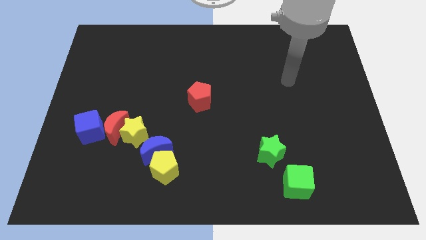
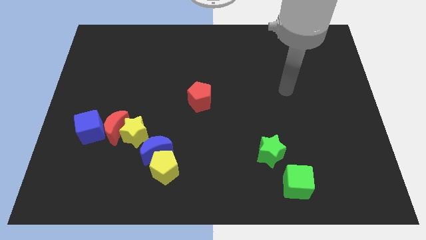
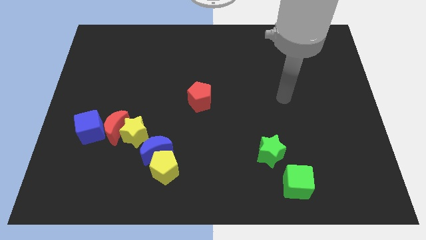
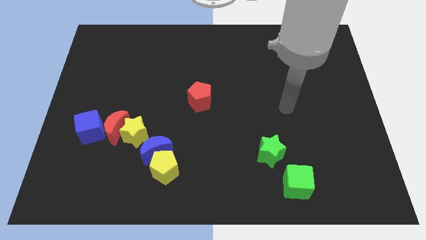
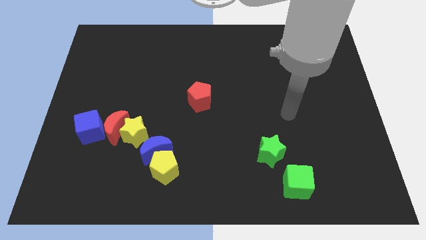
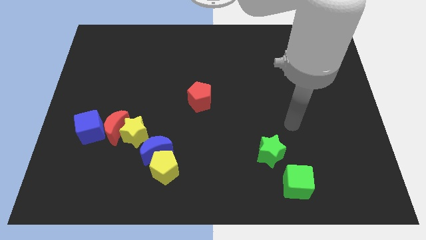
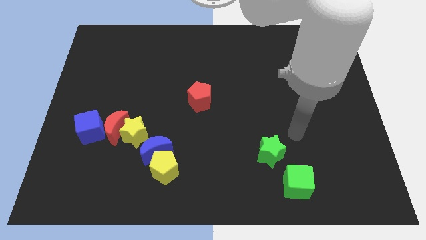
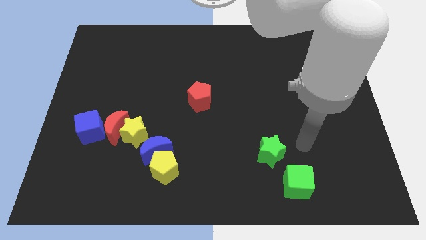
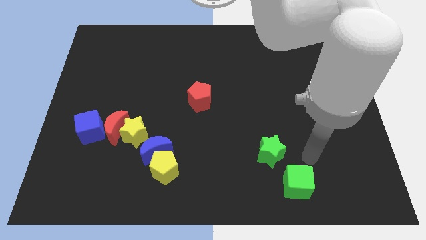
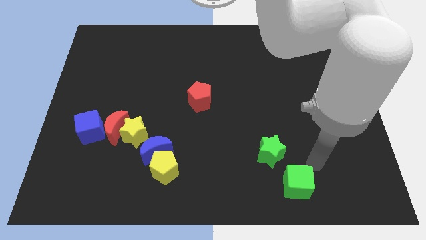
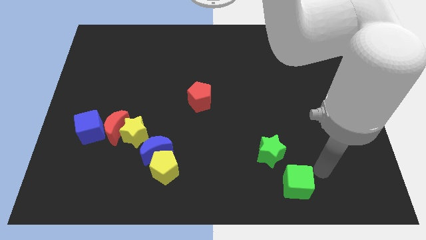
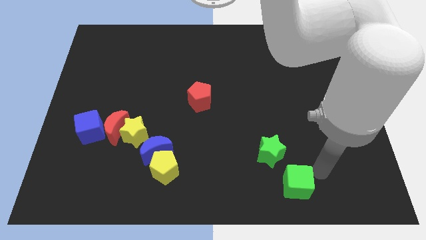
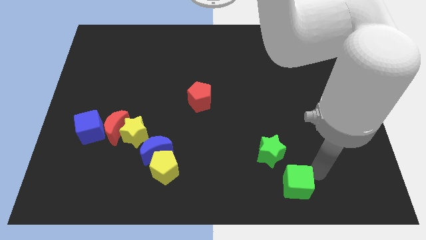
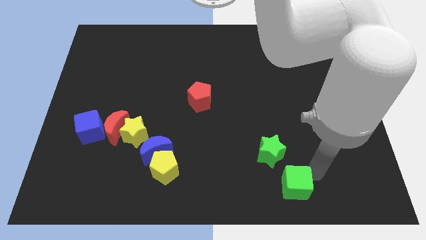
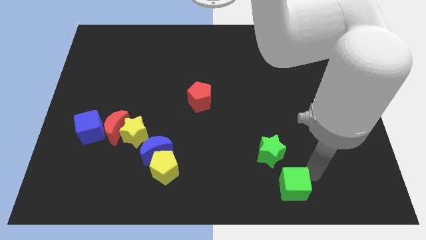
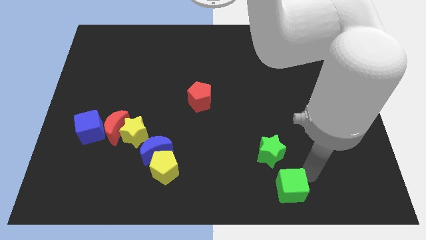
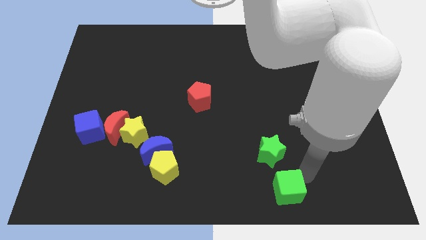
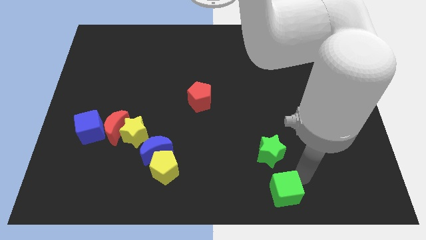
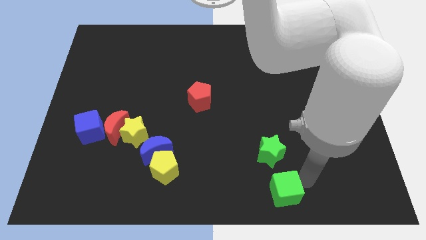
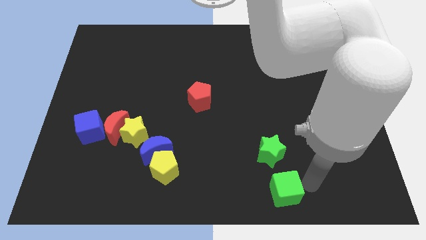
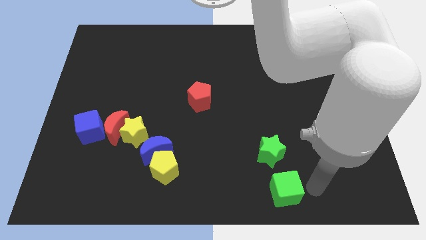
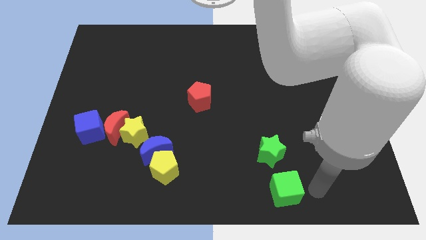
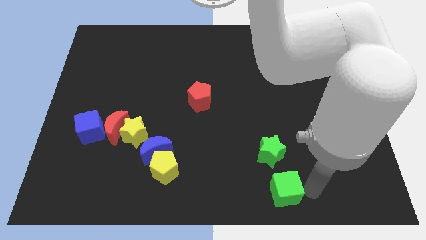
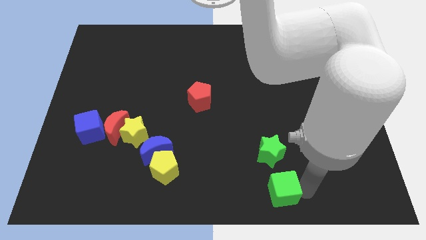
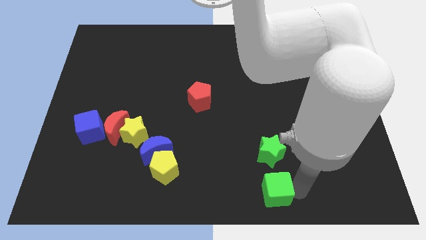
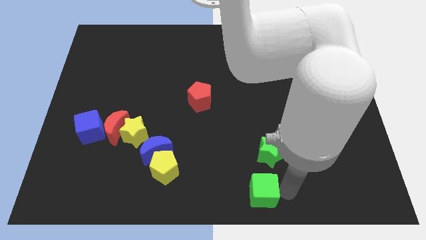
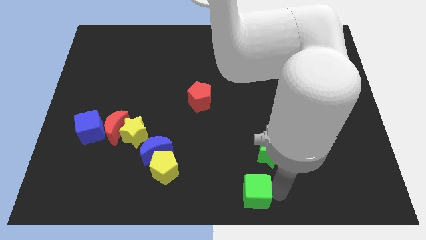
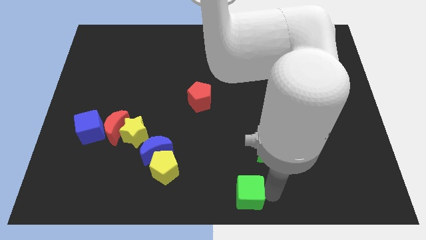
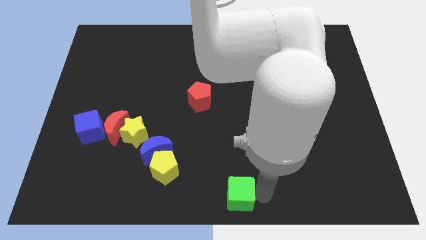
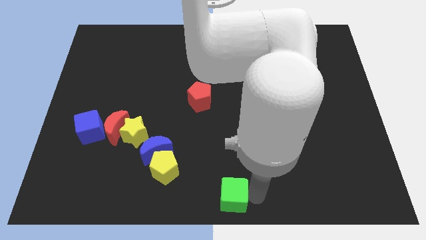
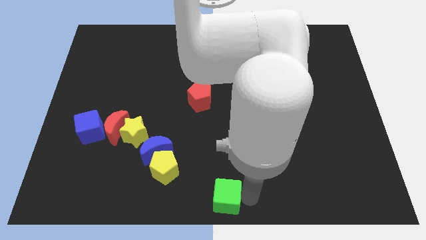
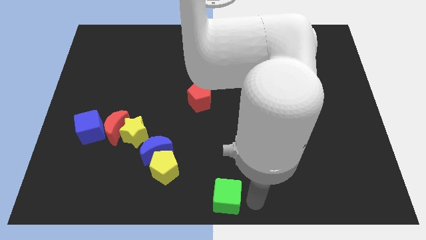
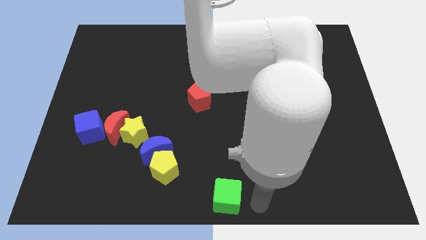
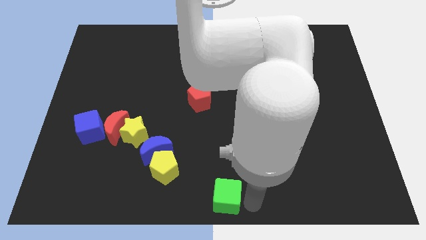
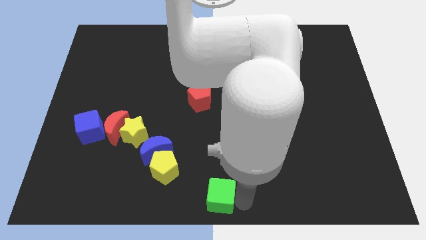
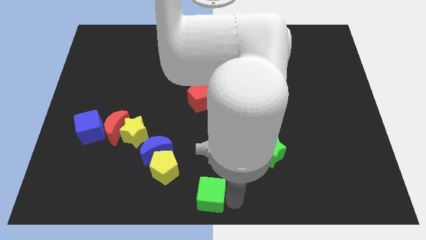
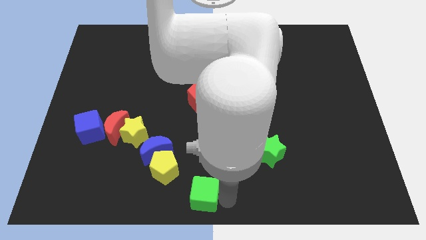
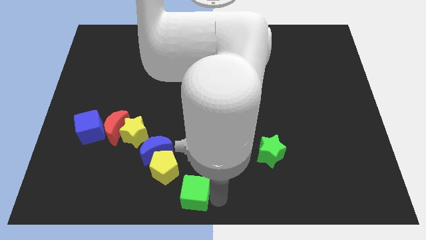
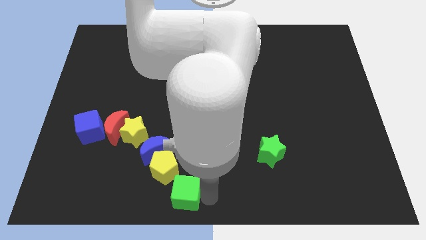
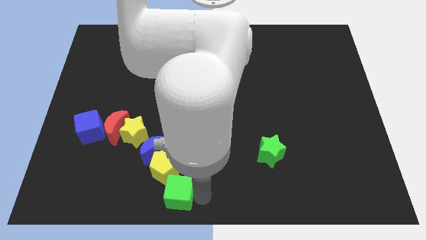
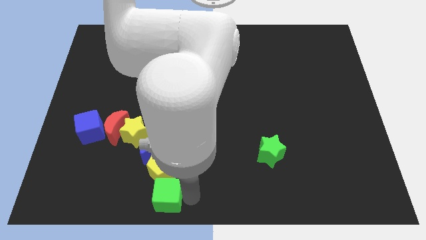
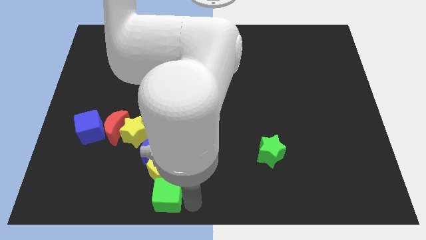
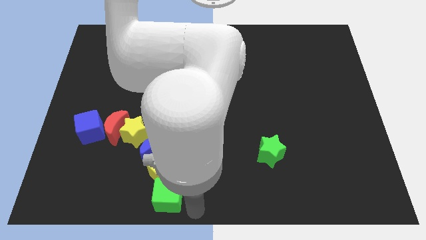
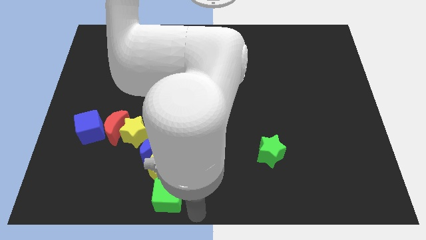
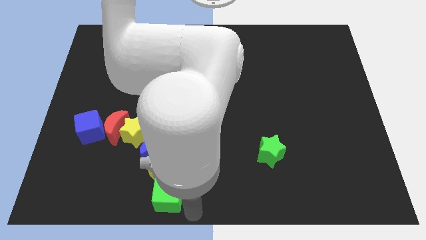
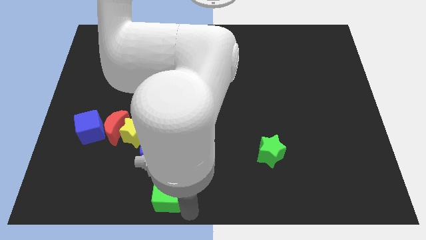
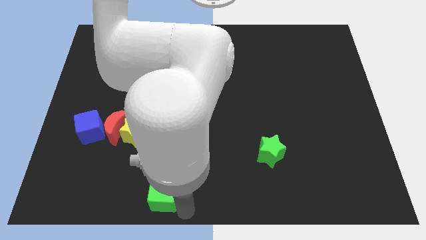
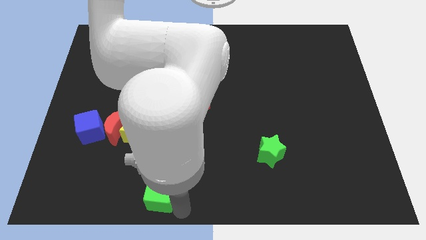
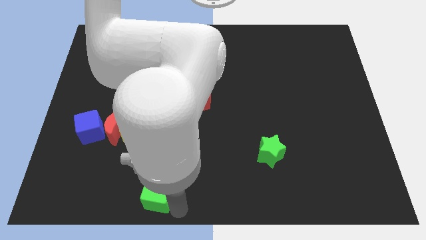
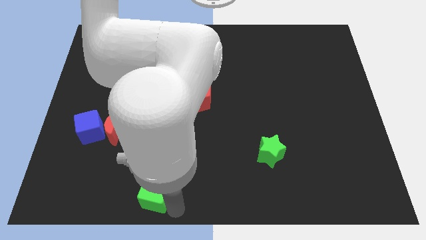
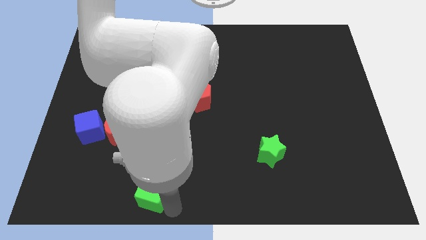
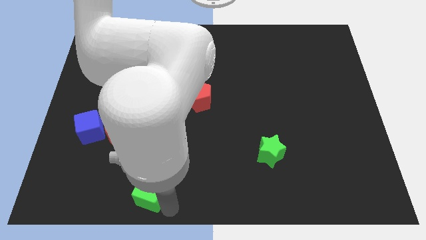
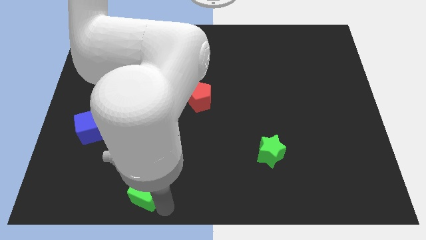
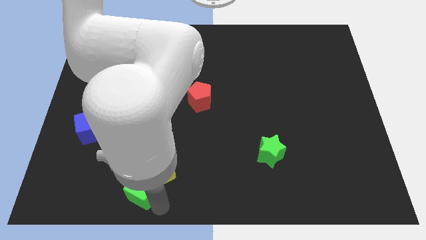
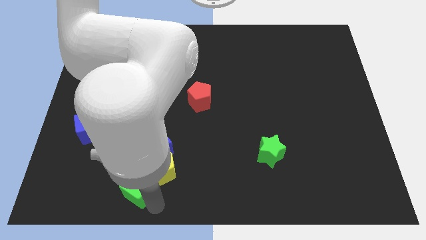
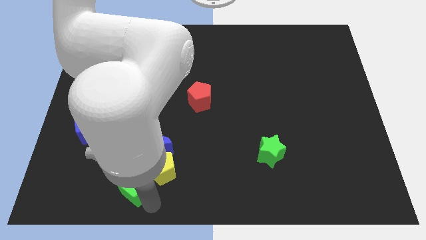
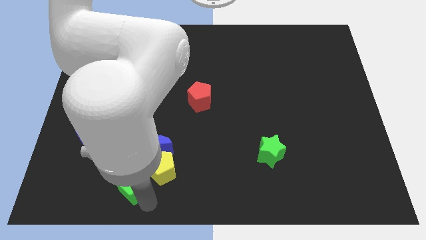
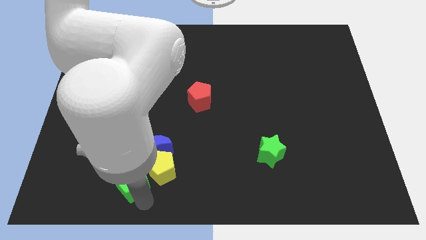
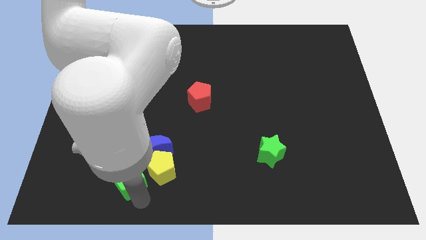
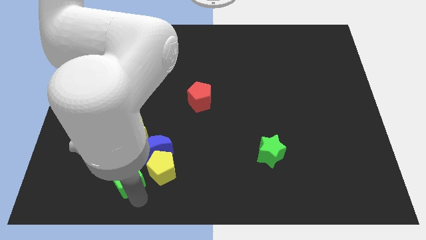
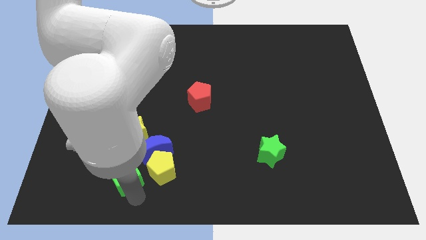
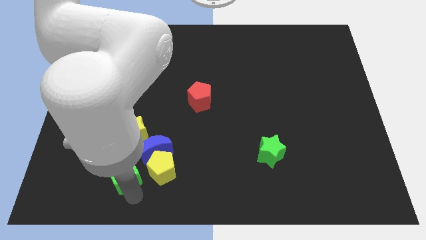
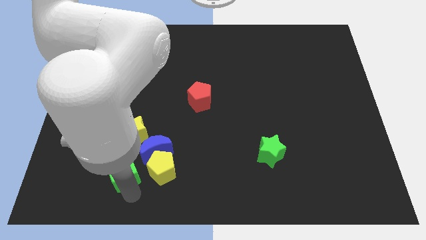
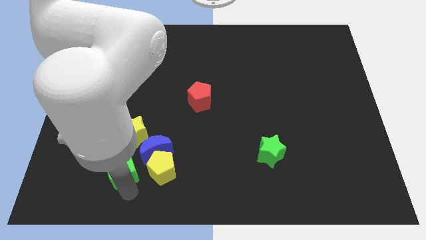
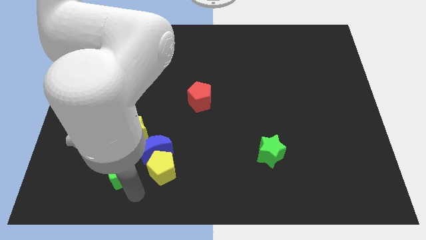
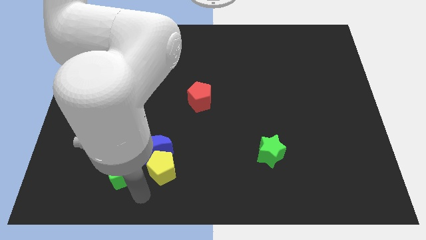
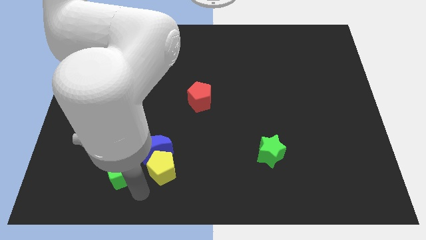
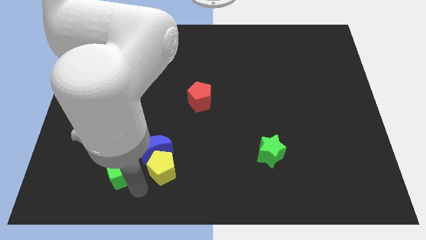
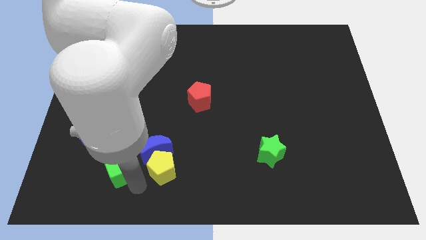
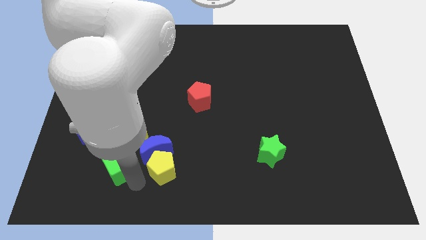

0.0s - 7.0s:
push the green cube diagonally down and to the left of the yellow star

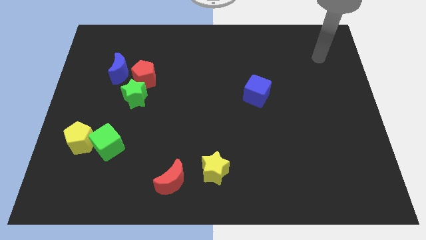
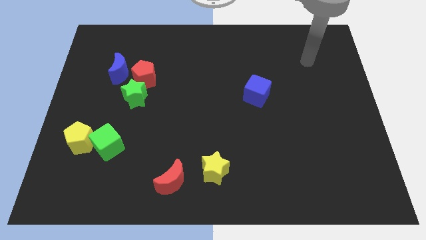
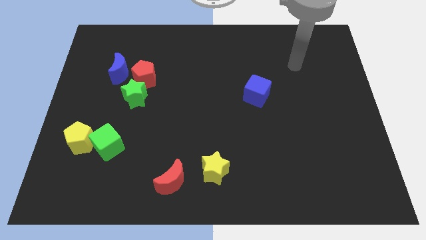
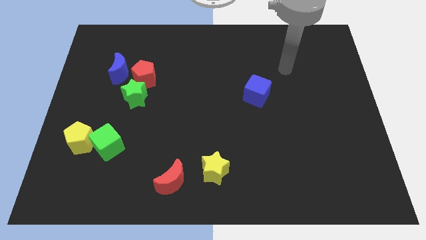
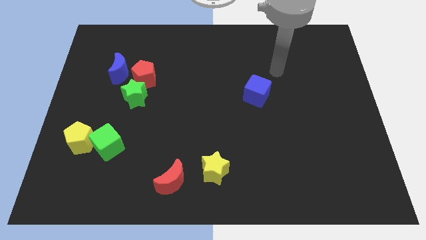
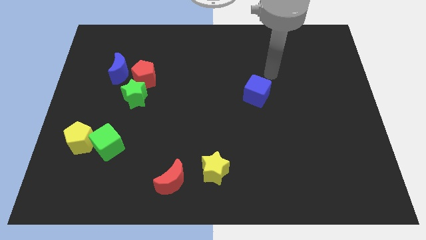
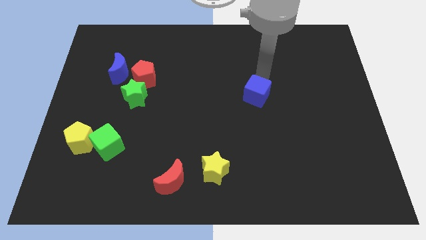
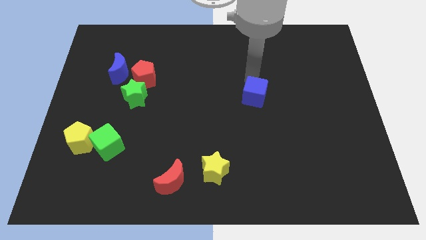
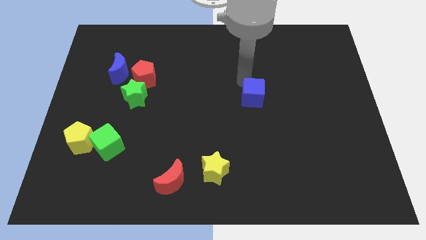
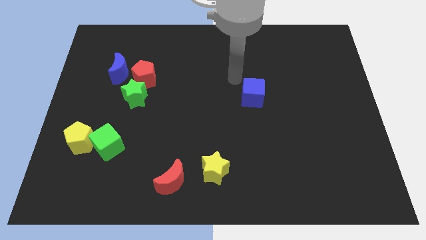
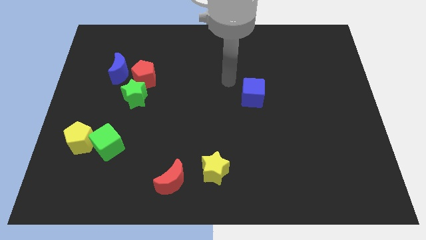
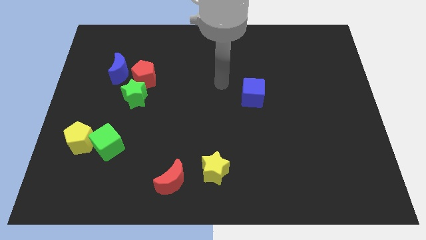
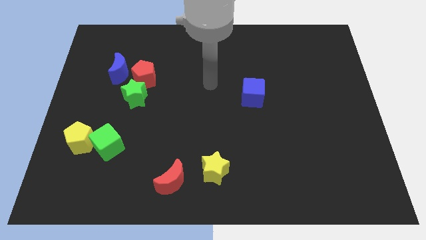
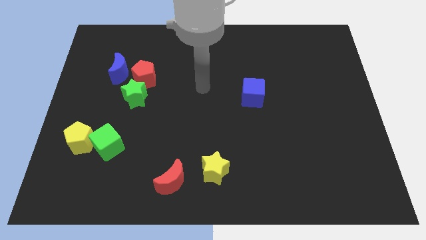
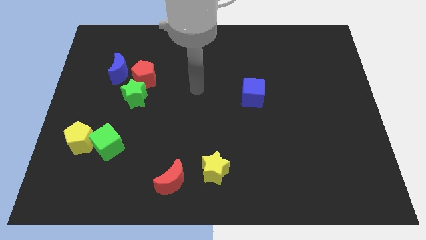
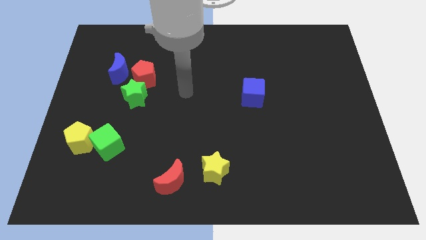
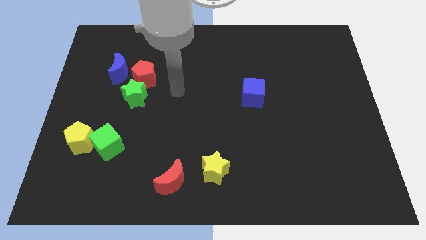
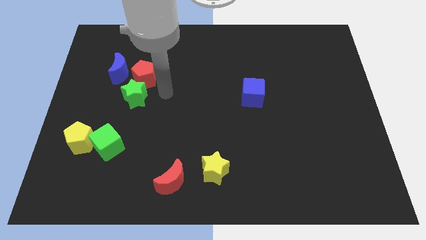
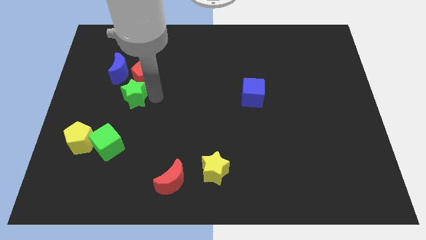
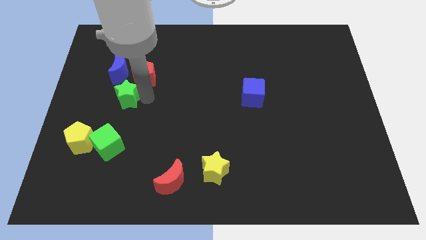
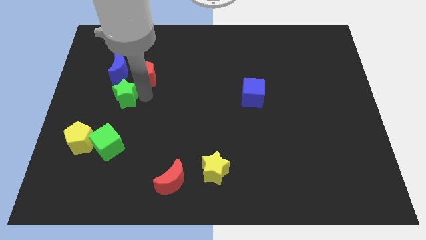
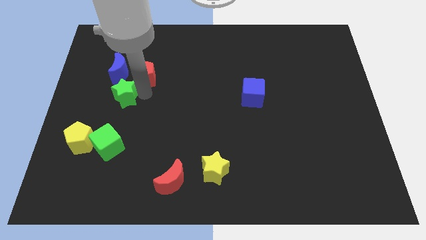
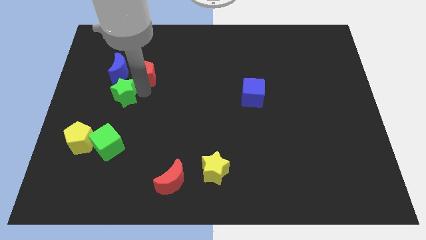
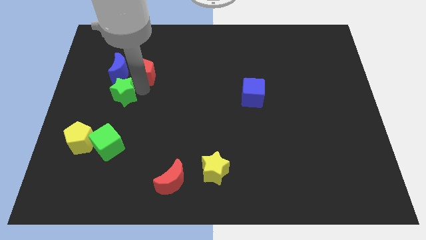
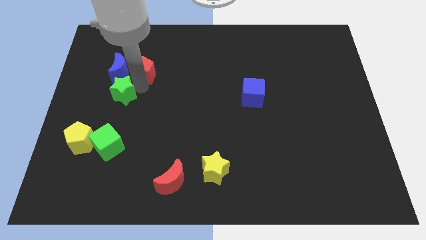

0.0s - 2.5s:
put the red pentagon diagonally up and to the right of the blue moon
